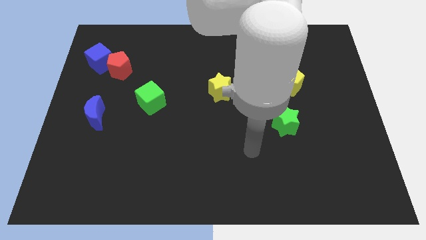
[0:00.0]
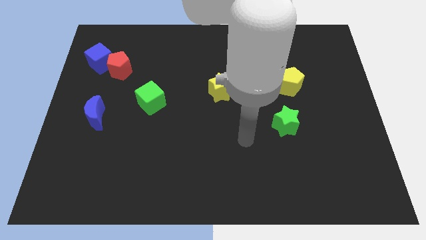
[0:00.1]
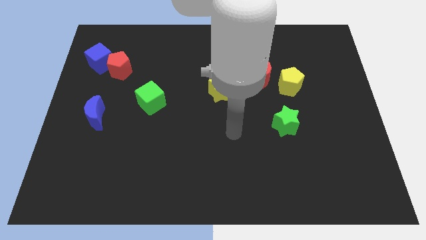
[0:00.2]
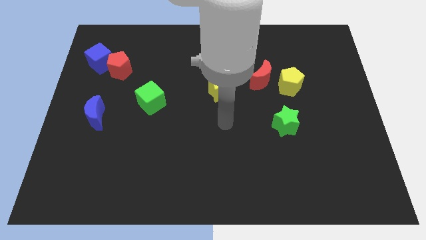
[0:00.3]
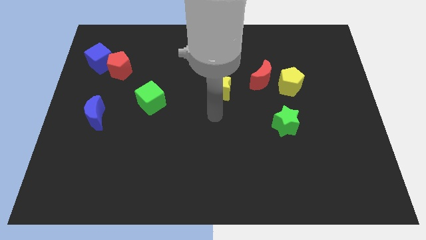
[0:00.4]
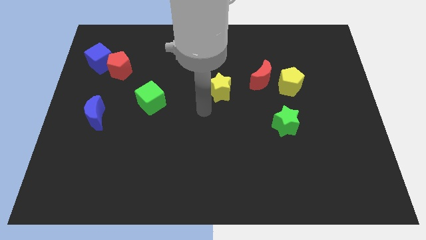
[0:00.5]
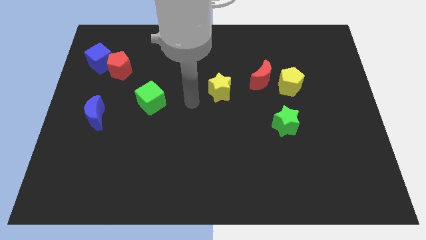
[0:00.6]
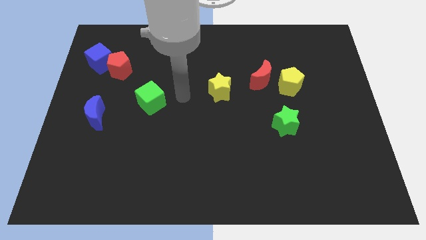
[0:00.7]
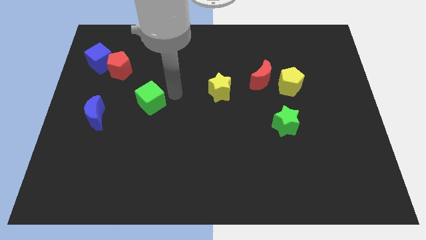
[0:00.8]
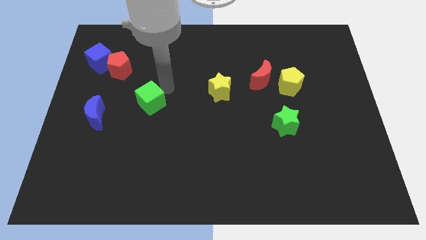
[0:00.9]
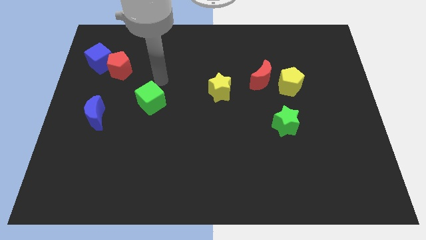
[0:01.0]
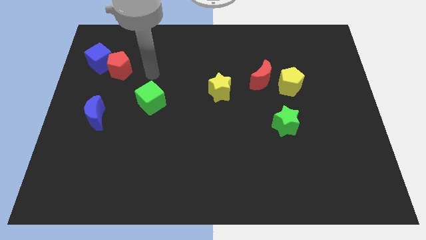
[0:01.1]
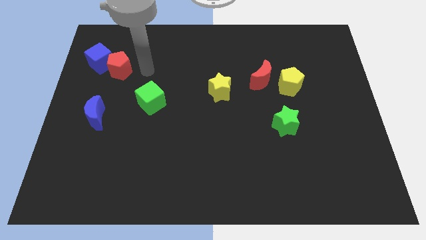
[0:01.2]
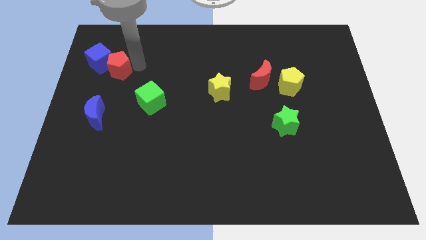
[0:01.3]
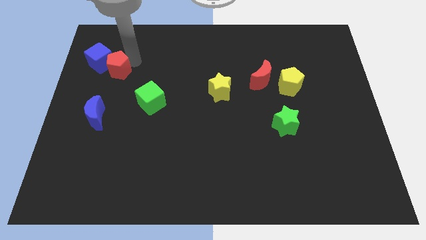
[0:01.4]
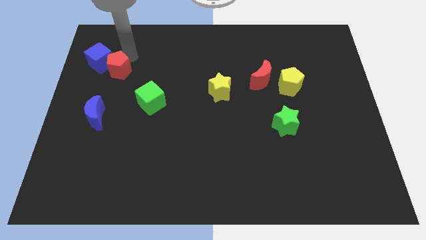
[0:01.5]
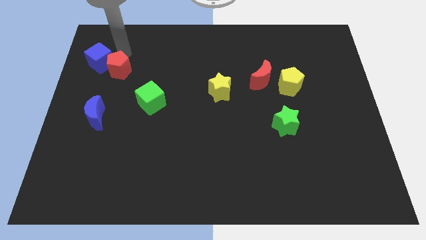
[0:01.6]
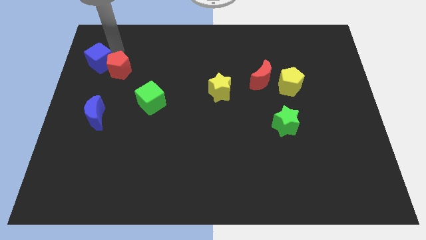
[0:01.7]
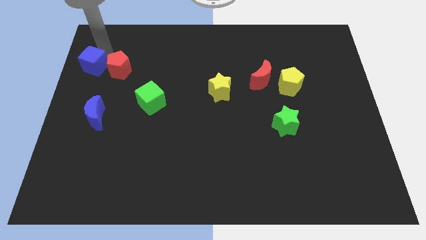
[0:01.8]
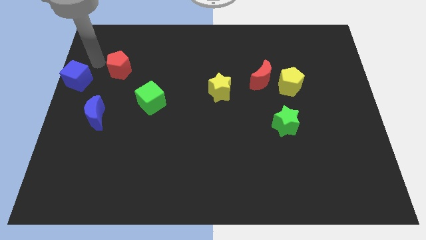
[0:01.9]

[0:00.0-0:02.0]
move the red pentagon away from the blue cube

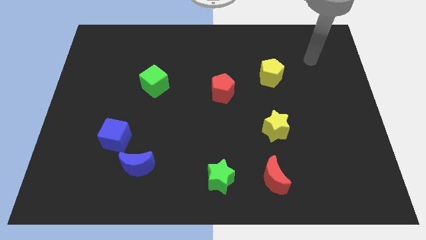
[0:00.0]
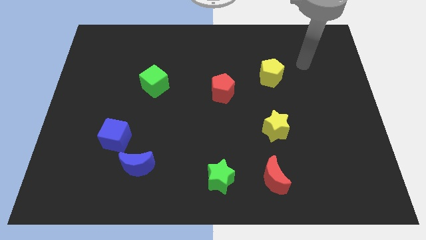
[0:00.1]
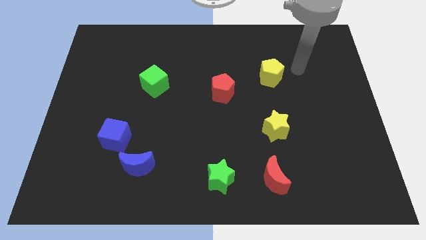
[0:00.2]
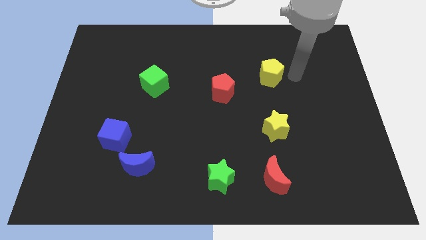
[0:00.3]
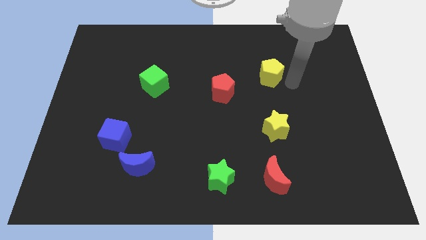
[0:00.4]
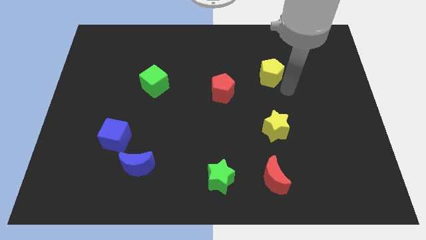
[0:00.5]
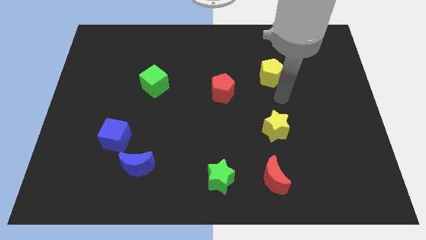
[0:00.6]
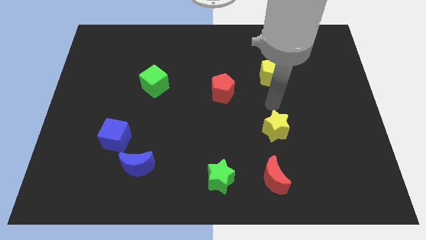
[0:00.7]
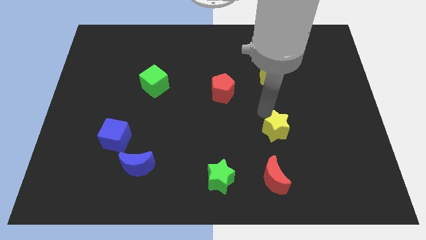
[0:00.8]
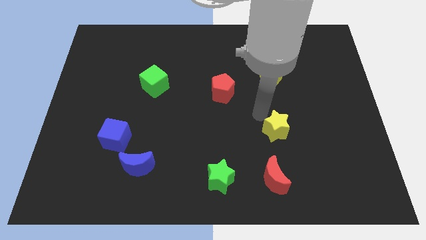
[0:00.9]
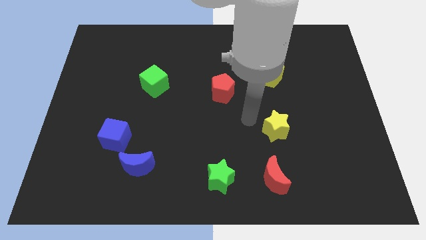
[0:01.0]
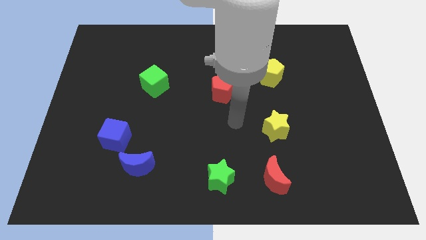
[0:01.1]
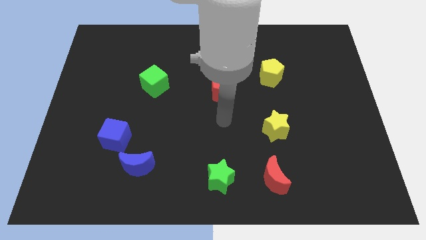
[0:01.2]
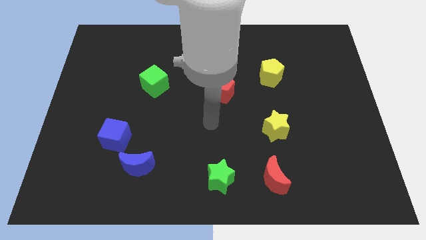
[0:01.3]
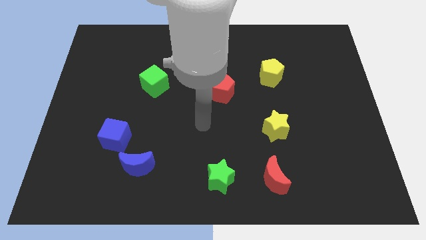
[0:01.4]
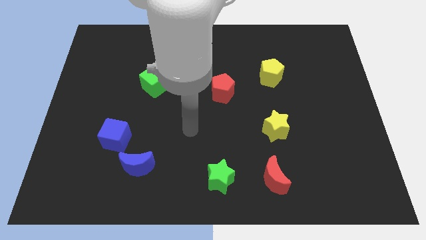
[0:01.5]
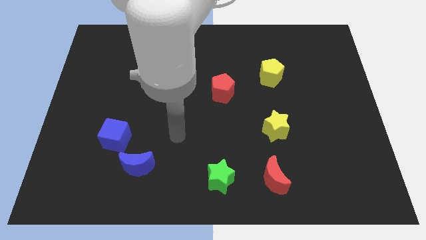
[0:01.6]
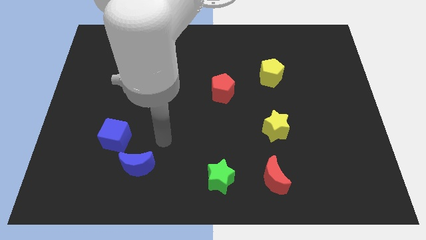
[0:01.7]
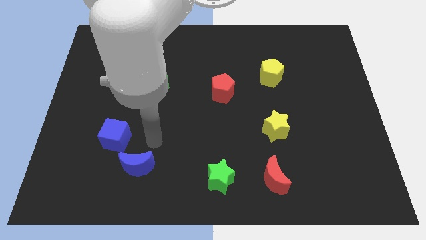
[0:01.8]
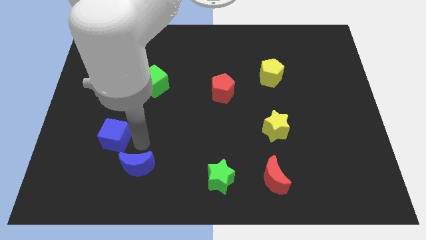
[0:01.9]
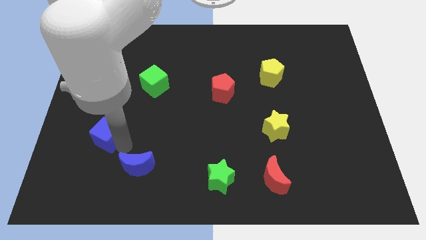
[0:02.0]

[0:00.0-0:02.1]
move the blue moon away from the blue cube

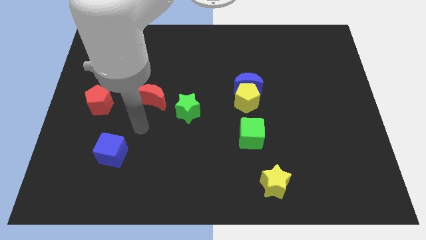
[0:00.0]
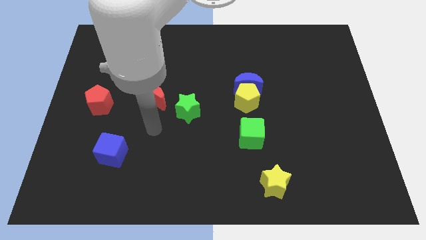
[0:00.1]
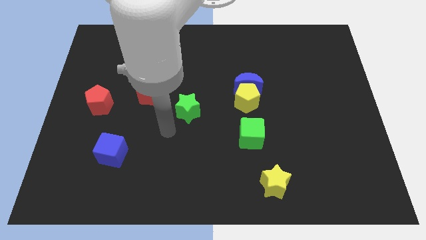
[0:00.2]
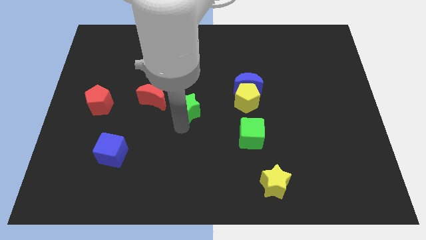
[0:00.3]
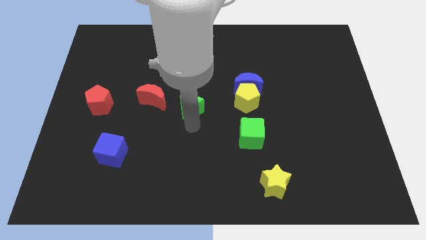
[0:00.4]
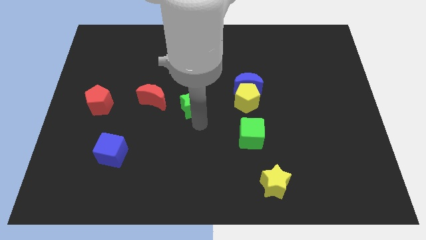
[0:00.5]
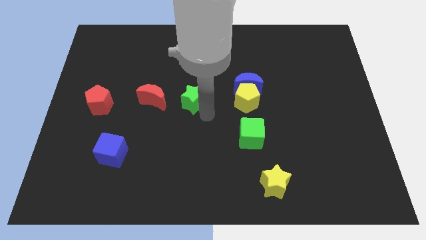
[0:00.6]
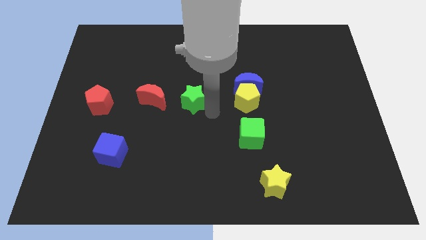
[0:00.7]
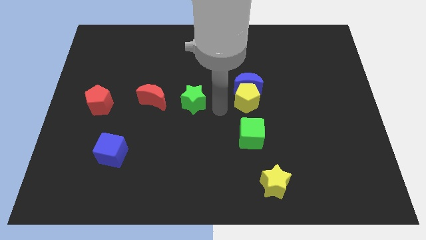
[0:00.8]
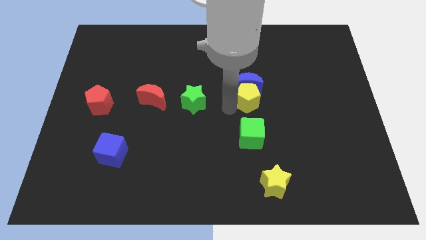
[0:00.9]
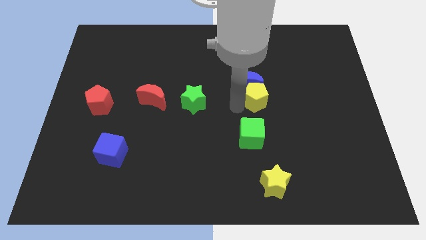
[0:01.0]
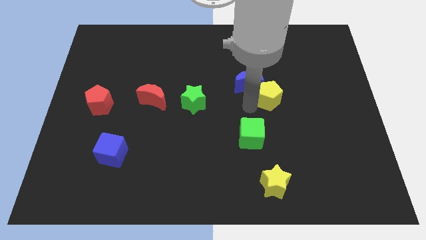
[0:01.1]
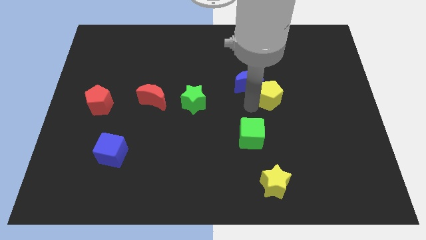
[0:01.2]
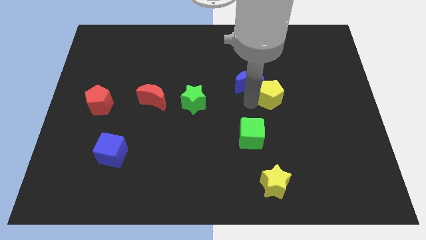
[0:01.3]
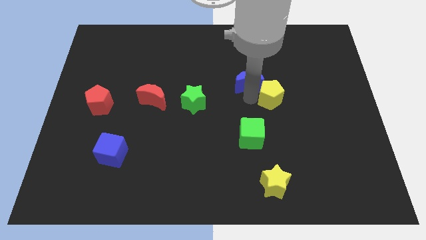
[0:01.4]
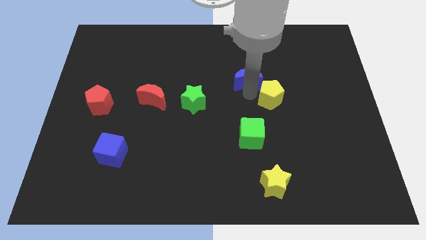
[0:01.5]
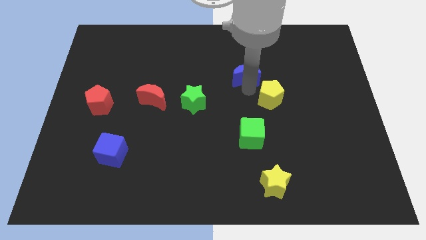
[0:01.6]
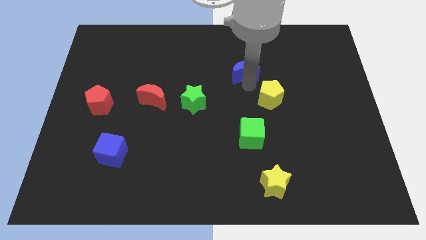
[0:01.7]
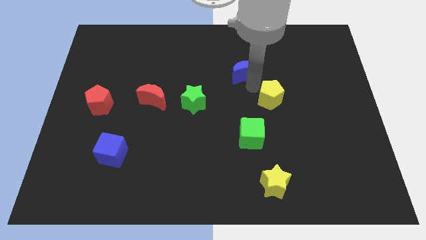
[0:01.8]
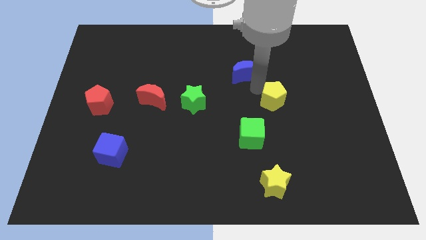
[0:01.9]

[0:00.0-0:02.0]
separate the blue moon from the yellow pentagon

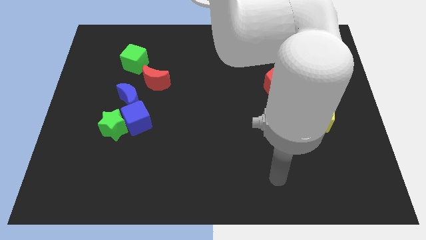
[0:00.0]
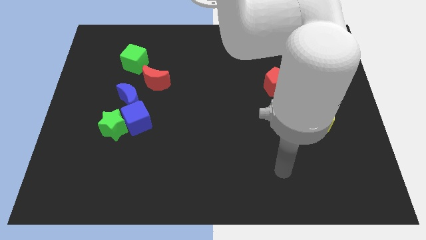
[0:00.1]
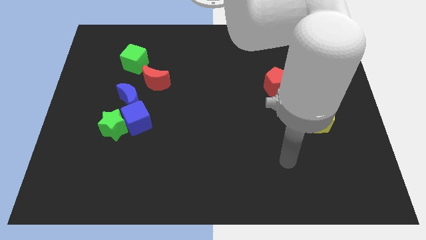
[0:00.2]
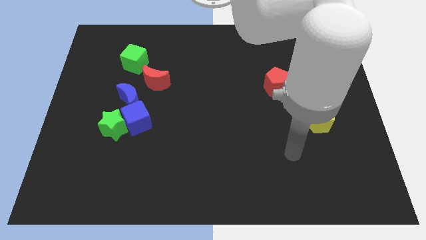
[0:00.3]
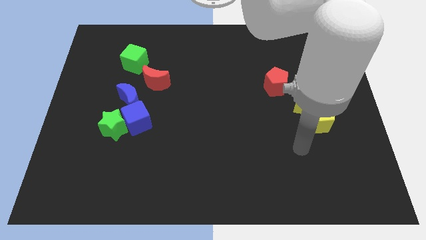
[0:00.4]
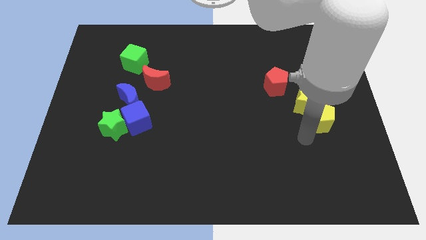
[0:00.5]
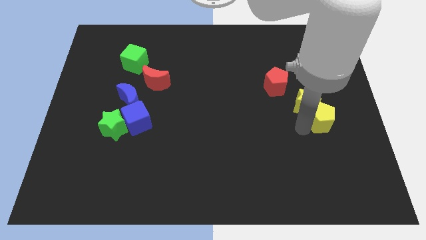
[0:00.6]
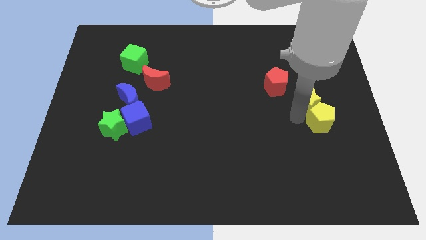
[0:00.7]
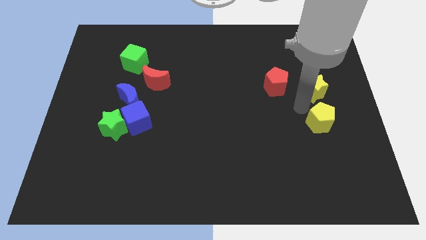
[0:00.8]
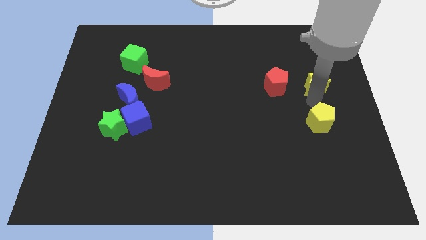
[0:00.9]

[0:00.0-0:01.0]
separate the yellow pentagon from the yellow star

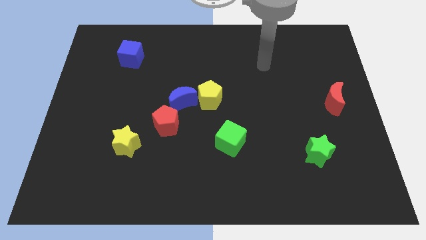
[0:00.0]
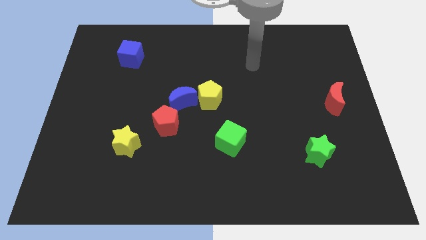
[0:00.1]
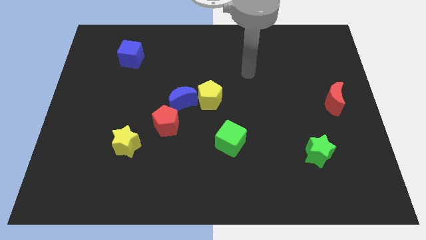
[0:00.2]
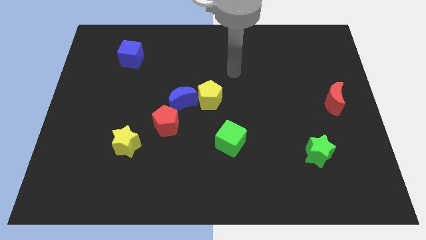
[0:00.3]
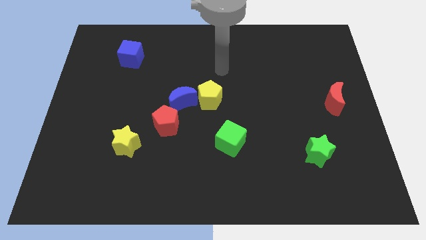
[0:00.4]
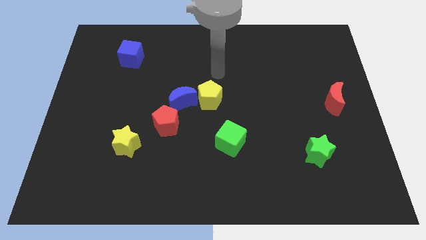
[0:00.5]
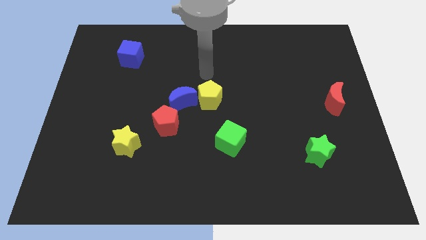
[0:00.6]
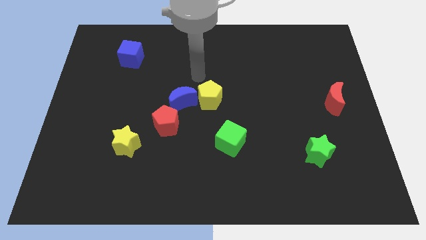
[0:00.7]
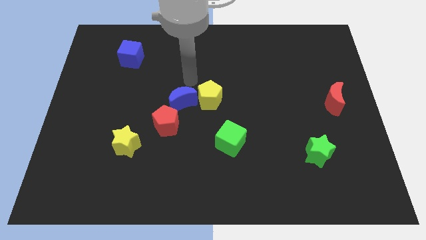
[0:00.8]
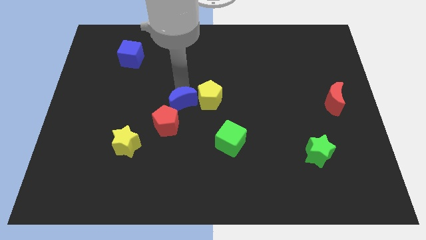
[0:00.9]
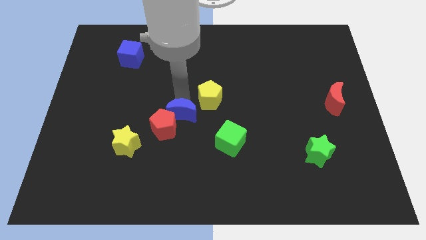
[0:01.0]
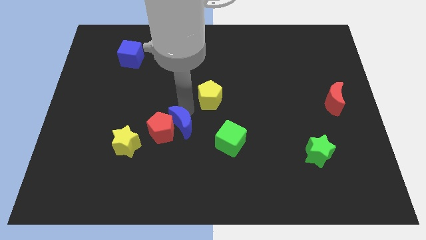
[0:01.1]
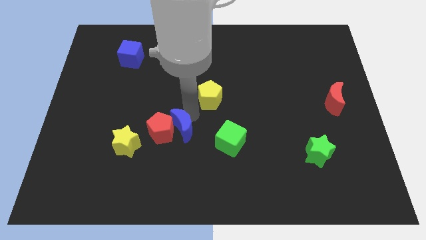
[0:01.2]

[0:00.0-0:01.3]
pull the yellow pentagon apart from the blue moon

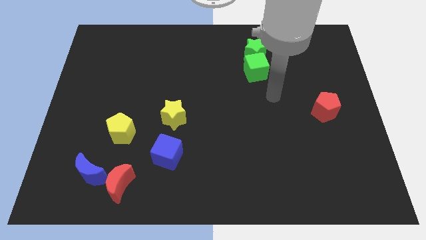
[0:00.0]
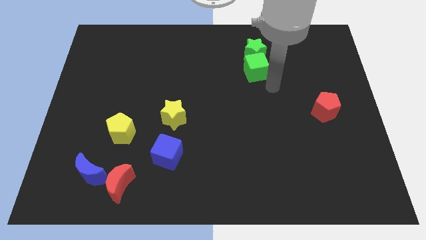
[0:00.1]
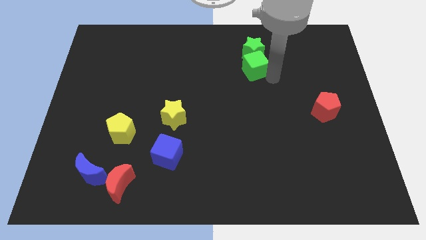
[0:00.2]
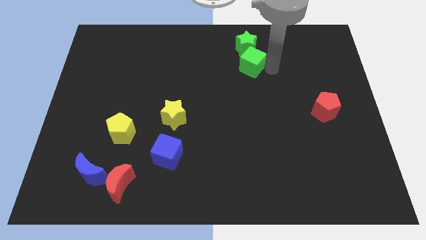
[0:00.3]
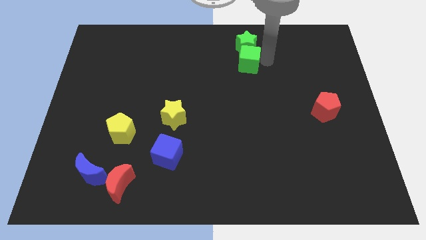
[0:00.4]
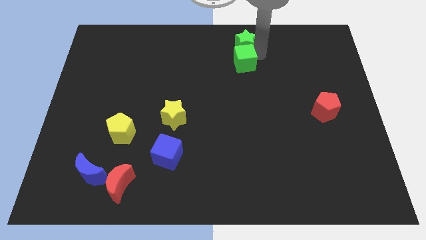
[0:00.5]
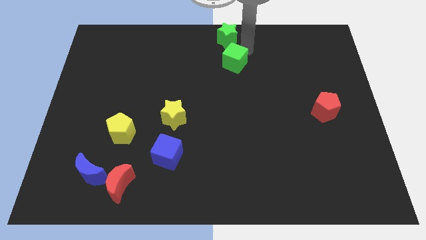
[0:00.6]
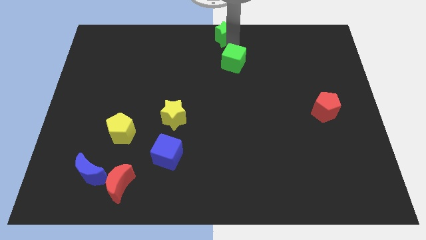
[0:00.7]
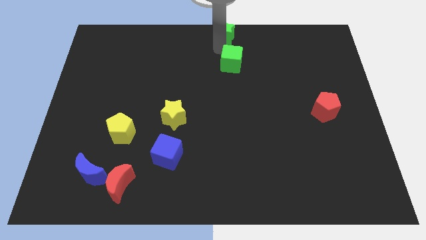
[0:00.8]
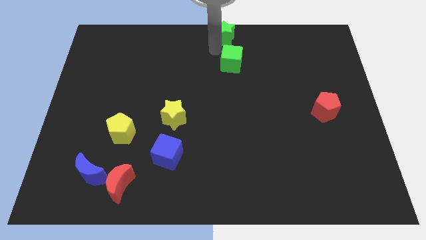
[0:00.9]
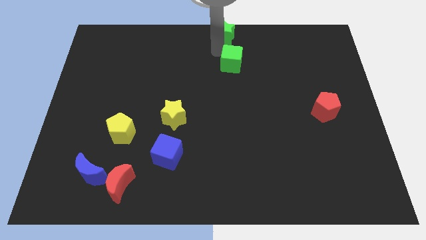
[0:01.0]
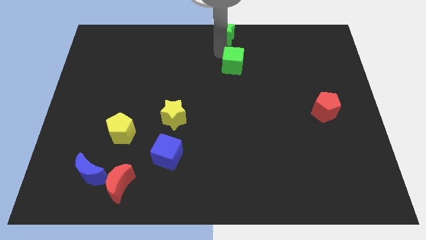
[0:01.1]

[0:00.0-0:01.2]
pull the green cube apart from the green star
